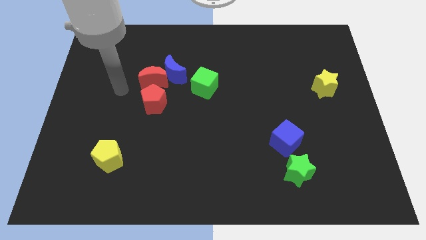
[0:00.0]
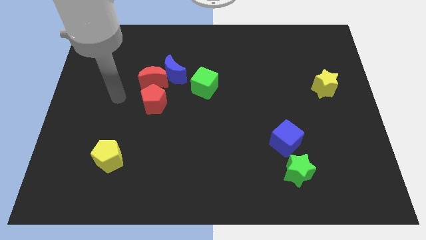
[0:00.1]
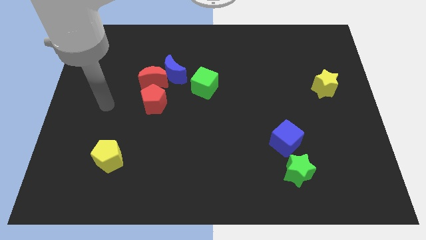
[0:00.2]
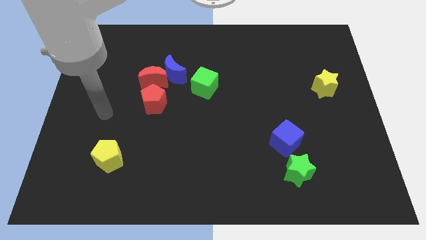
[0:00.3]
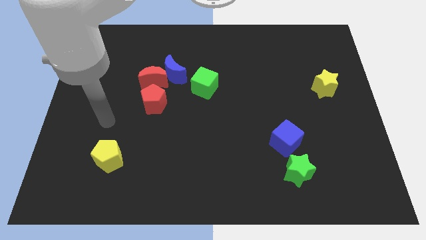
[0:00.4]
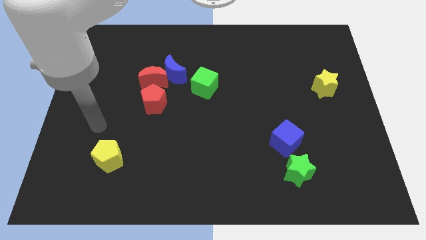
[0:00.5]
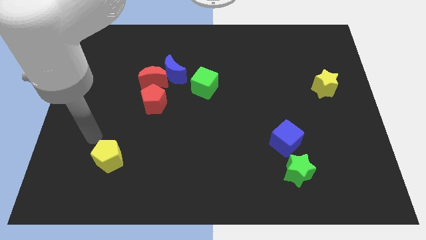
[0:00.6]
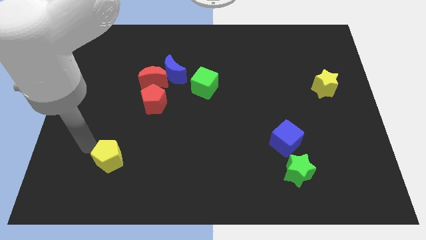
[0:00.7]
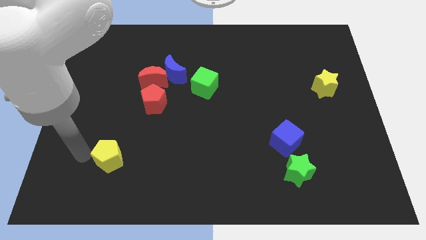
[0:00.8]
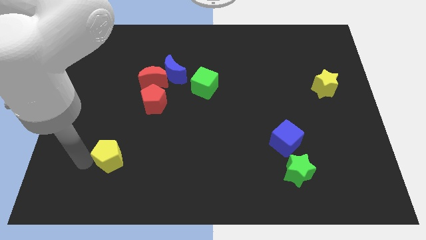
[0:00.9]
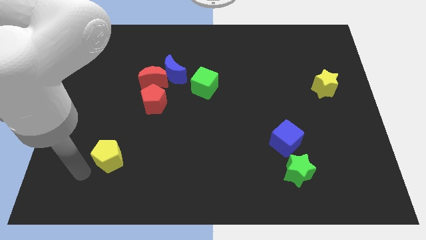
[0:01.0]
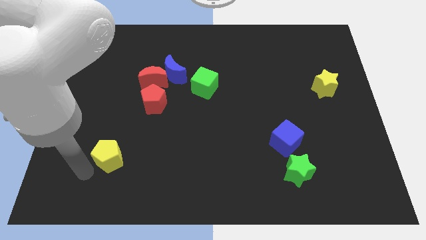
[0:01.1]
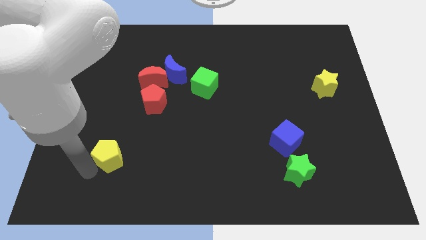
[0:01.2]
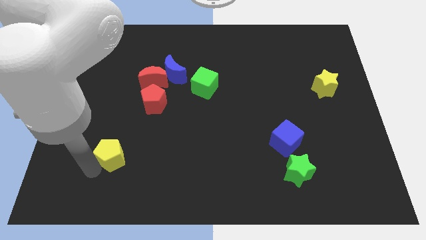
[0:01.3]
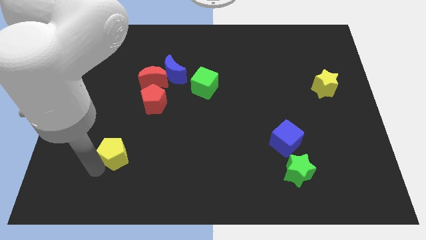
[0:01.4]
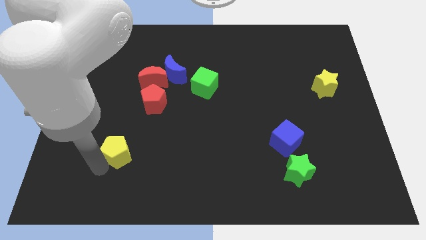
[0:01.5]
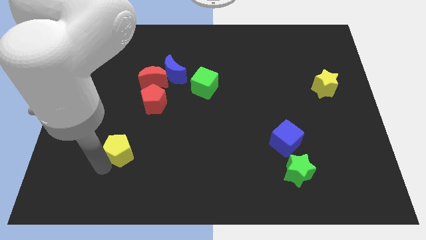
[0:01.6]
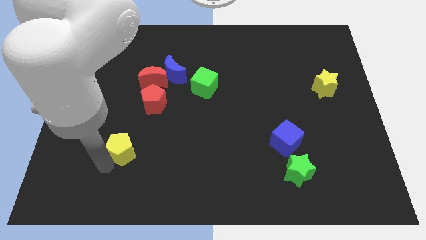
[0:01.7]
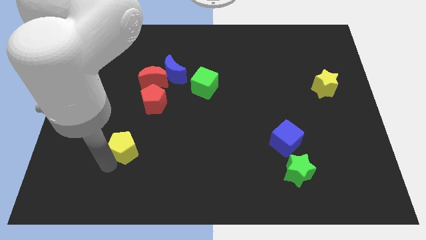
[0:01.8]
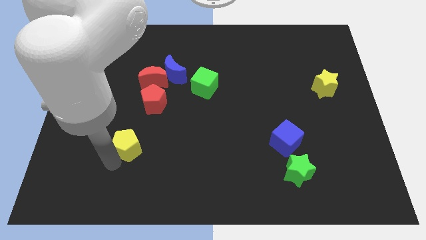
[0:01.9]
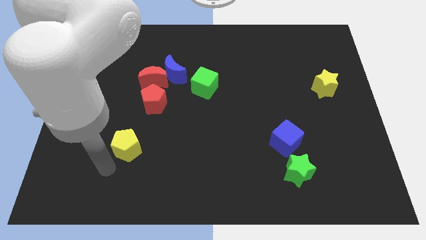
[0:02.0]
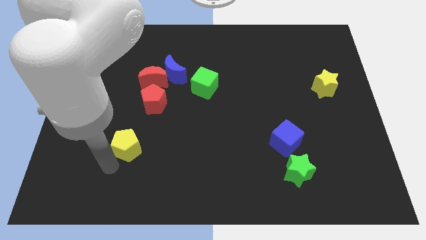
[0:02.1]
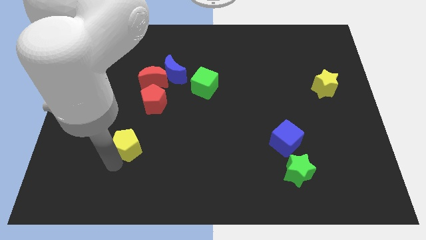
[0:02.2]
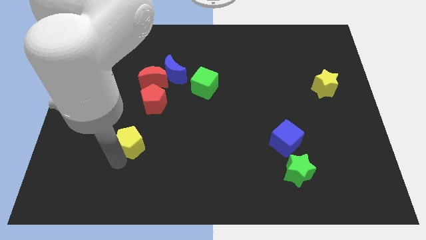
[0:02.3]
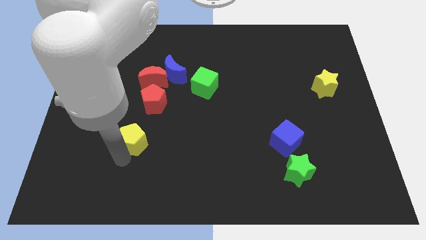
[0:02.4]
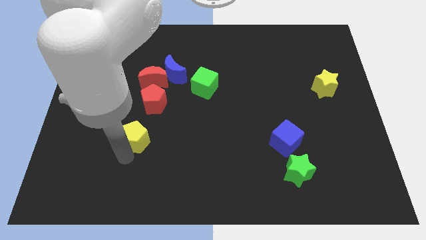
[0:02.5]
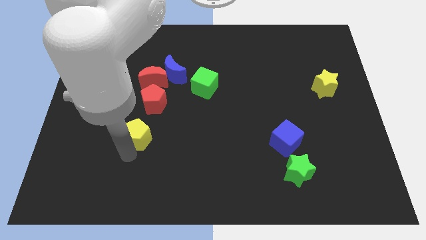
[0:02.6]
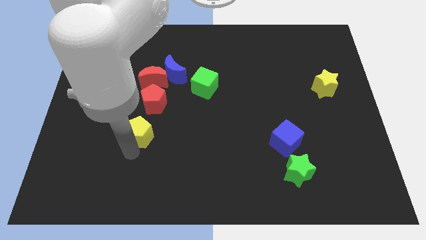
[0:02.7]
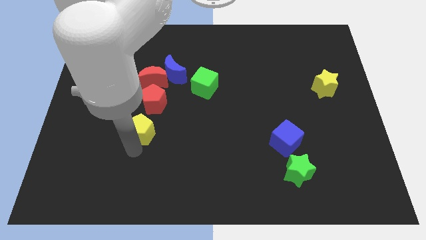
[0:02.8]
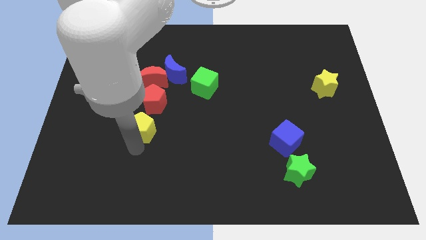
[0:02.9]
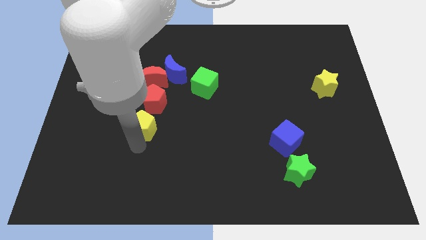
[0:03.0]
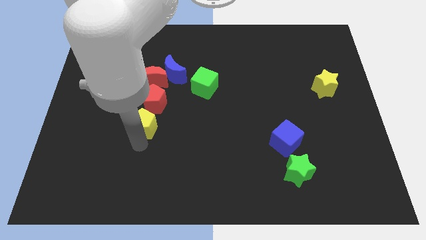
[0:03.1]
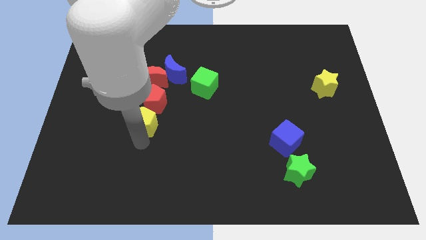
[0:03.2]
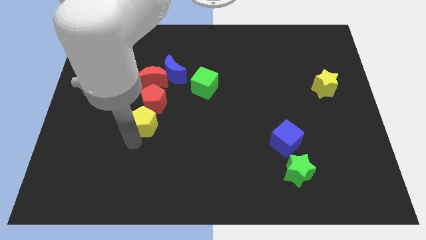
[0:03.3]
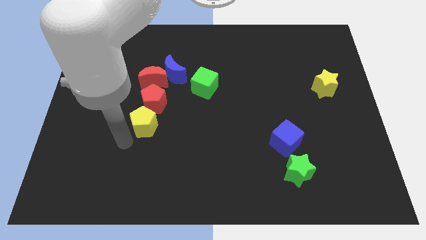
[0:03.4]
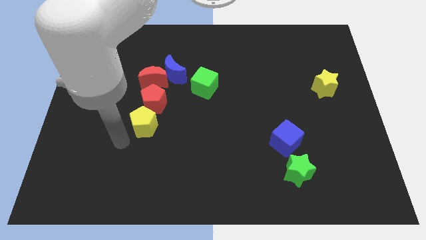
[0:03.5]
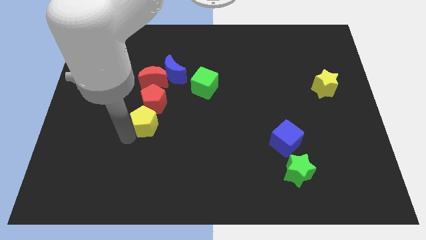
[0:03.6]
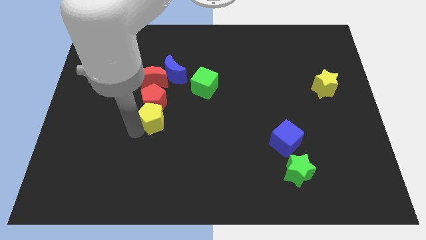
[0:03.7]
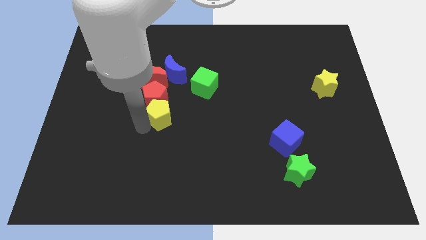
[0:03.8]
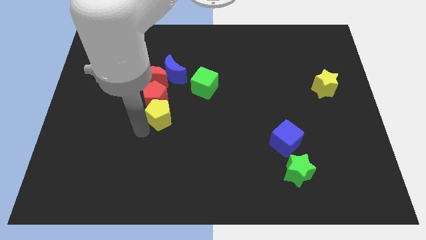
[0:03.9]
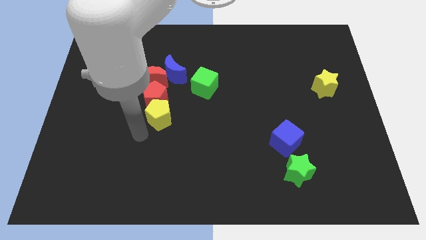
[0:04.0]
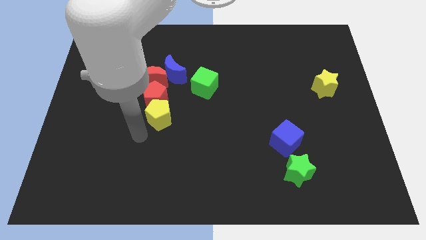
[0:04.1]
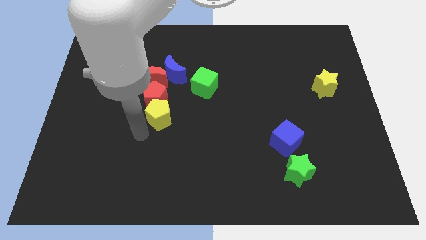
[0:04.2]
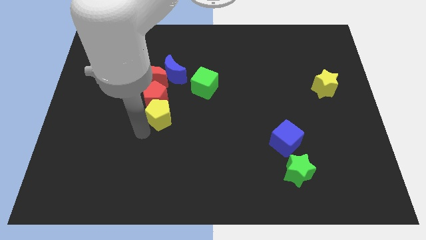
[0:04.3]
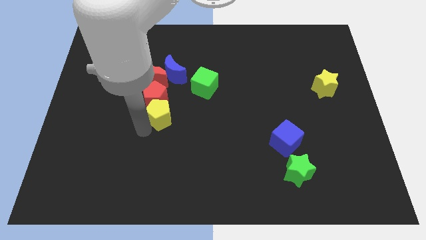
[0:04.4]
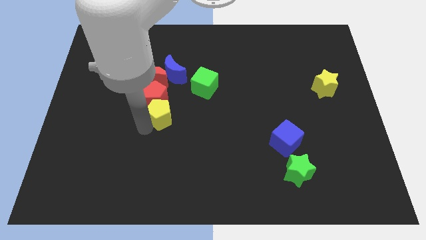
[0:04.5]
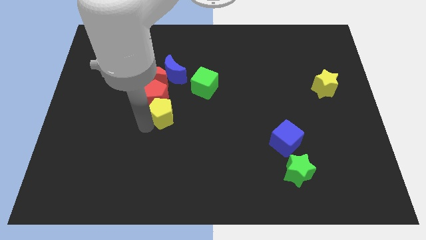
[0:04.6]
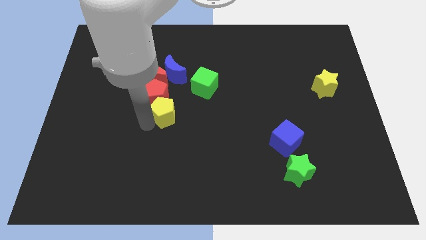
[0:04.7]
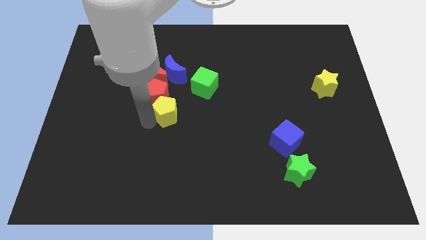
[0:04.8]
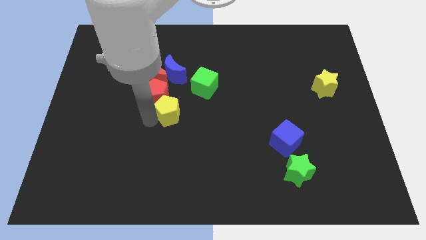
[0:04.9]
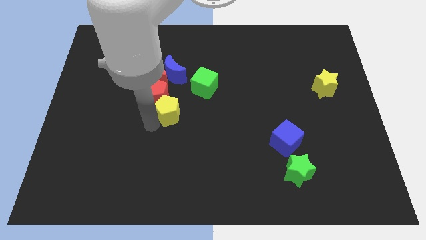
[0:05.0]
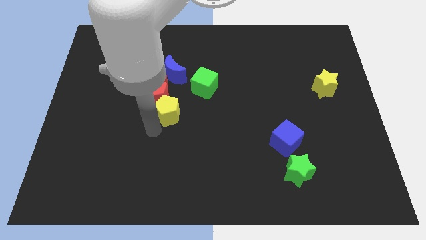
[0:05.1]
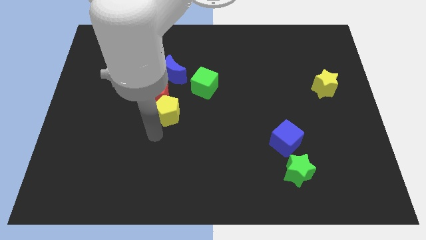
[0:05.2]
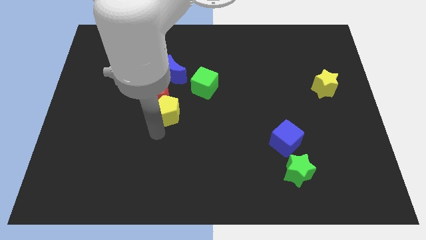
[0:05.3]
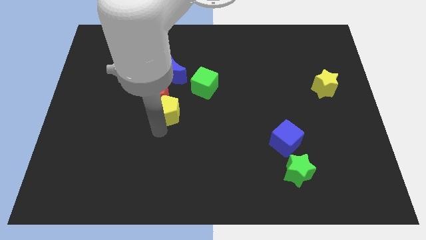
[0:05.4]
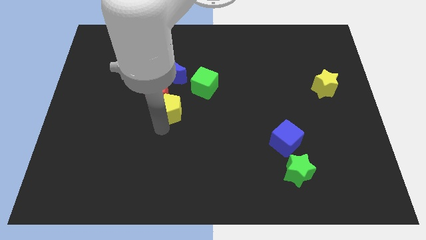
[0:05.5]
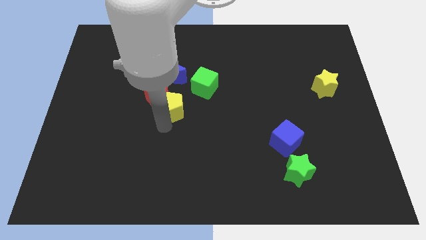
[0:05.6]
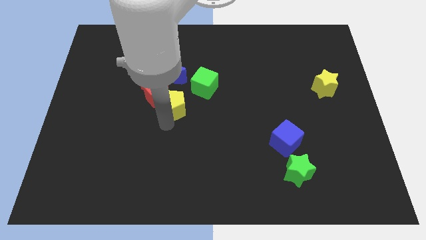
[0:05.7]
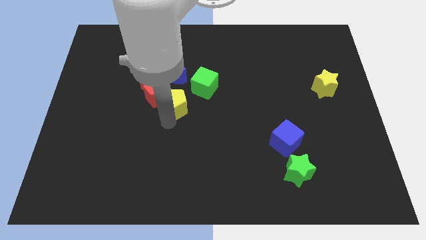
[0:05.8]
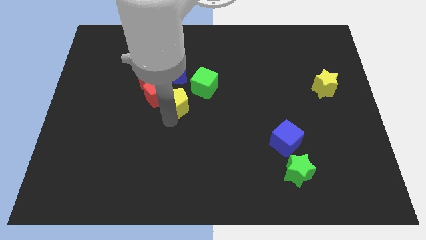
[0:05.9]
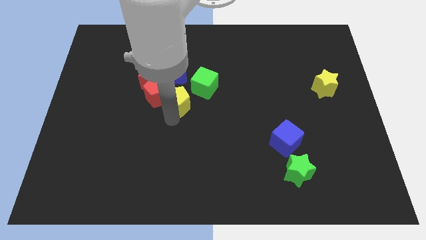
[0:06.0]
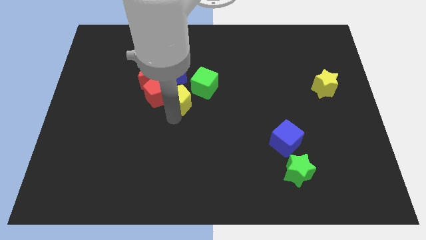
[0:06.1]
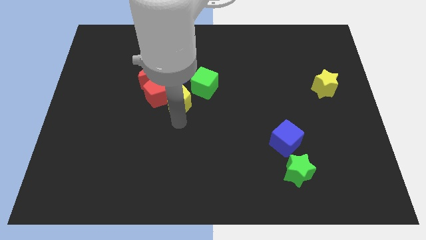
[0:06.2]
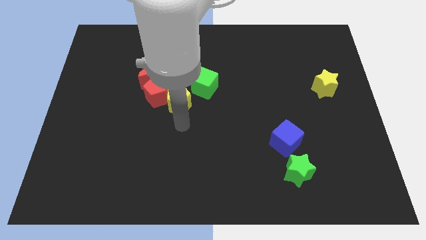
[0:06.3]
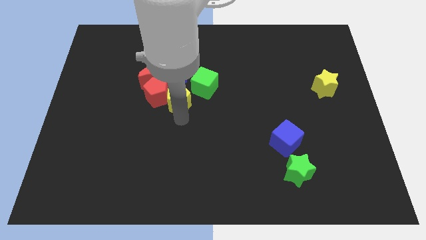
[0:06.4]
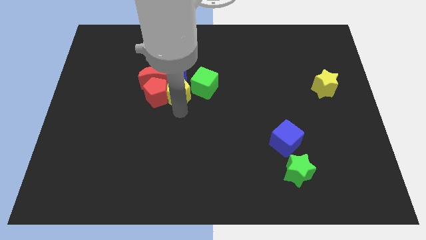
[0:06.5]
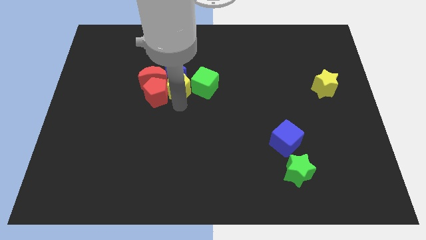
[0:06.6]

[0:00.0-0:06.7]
slide the yellow pentagon close to the blue moon
